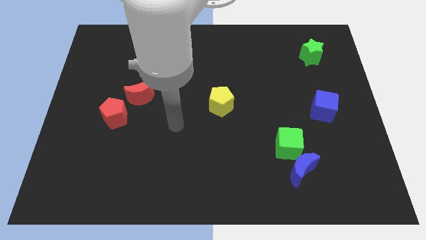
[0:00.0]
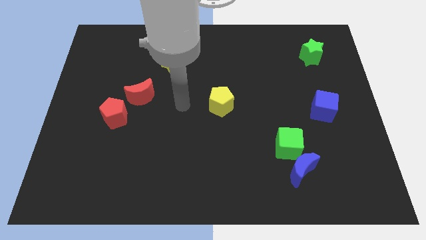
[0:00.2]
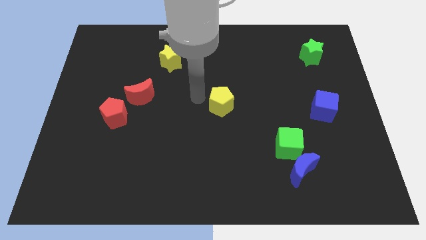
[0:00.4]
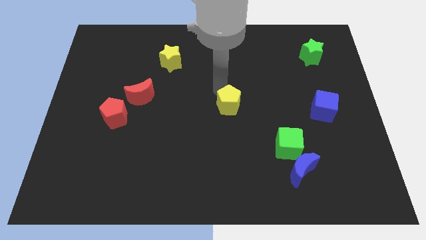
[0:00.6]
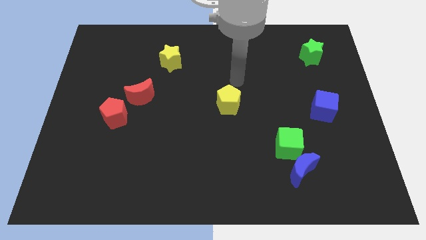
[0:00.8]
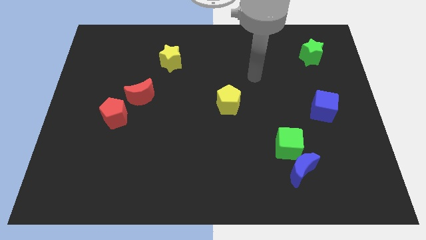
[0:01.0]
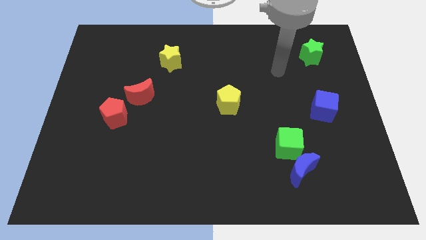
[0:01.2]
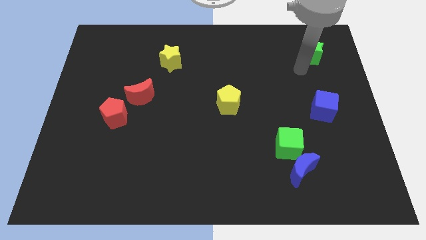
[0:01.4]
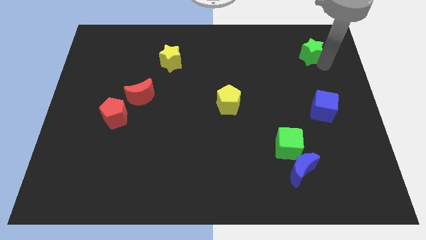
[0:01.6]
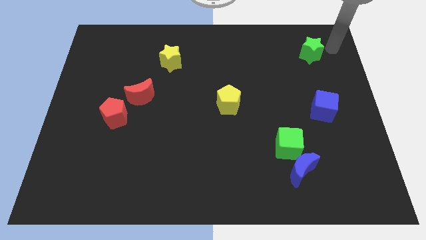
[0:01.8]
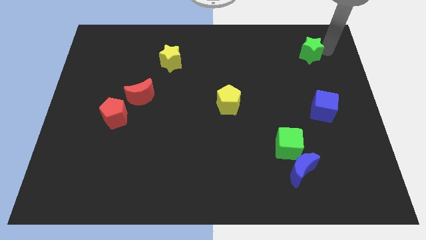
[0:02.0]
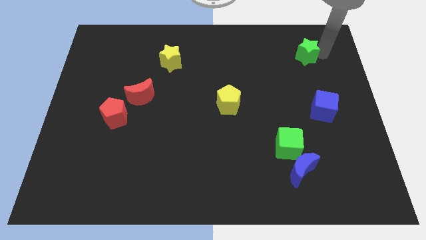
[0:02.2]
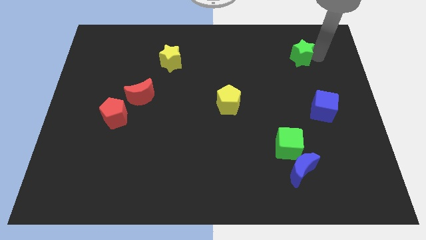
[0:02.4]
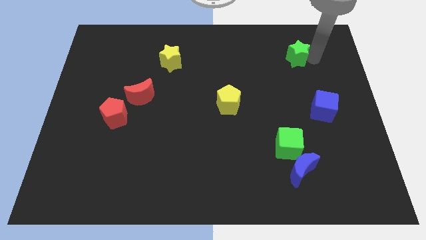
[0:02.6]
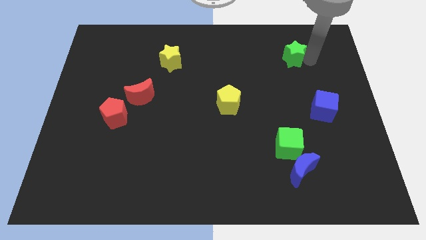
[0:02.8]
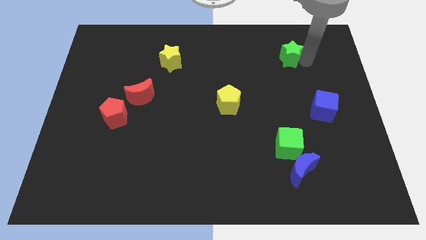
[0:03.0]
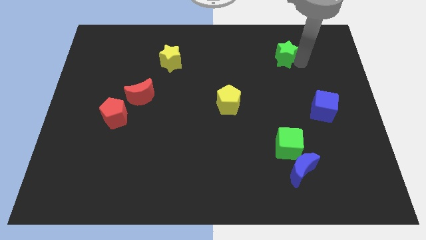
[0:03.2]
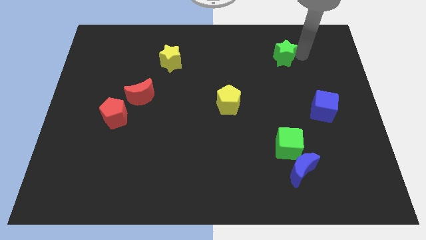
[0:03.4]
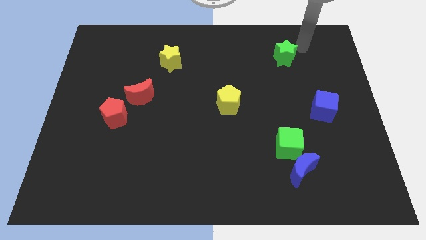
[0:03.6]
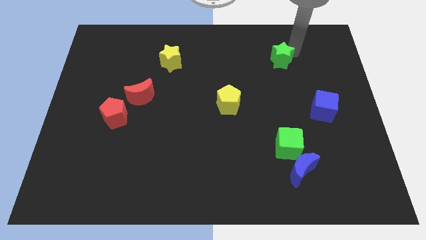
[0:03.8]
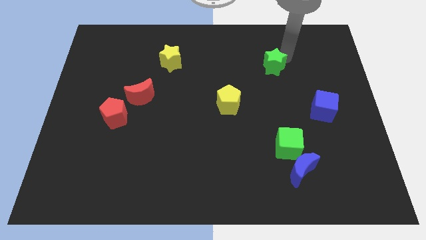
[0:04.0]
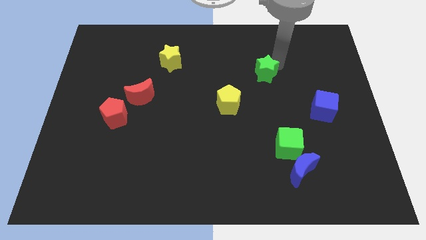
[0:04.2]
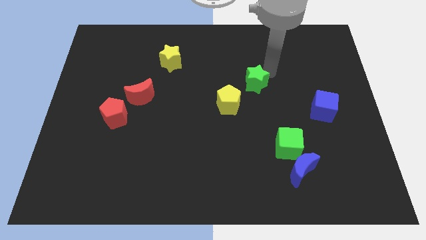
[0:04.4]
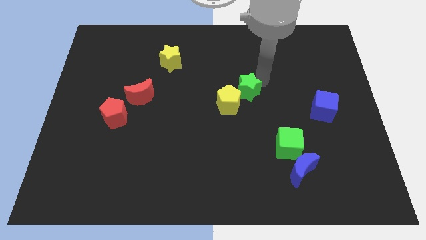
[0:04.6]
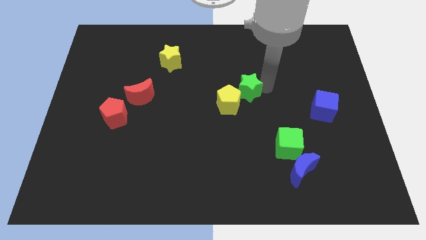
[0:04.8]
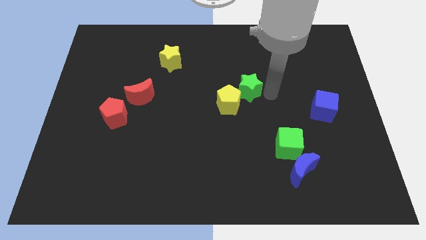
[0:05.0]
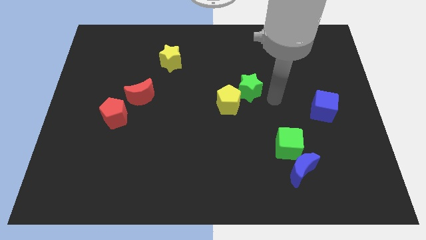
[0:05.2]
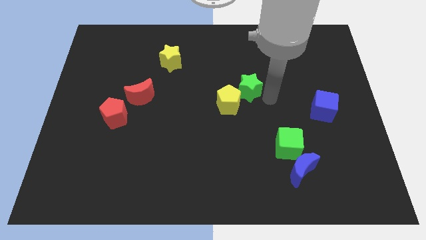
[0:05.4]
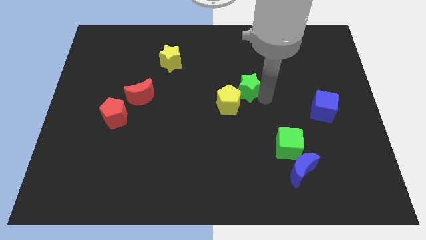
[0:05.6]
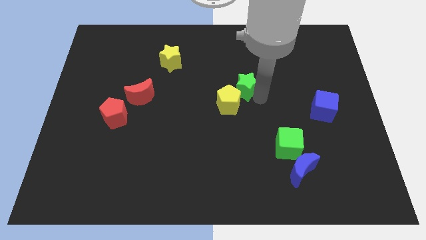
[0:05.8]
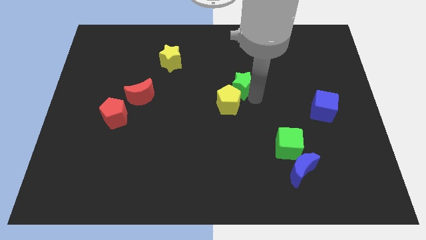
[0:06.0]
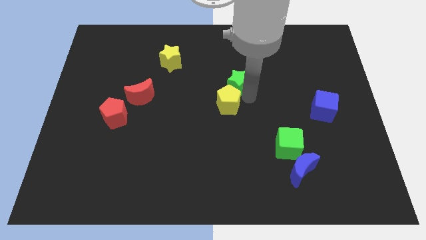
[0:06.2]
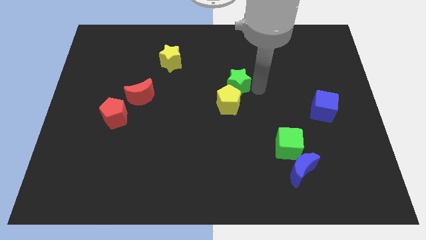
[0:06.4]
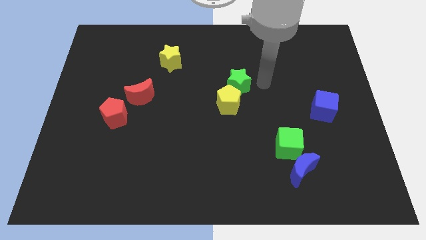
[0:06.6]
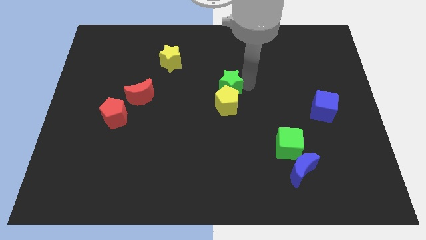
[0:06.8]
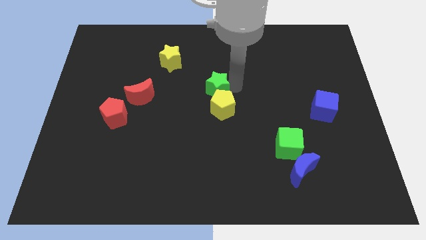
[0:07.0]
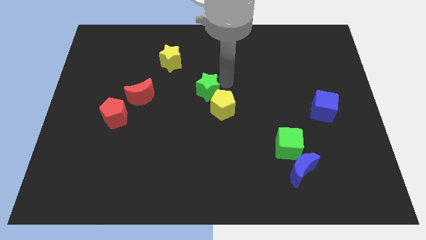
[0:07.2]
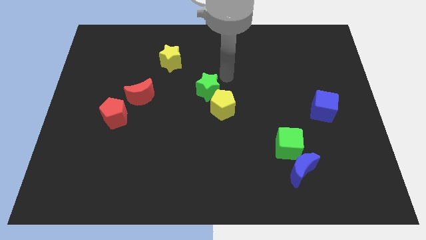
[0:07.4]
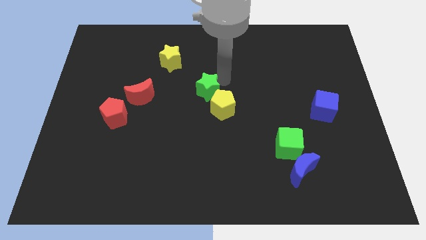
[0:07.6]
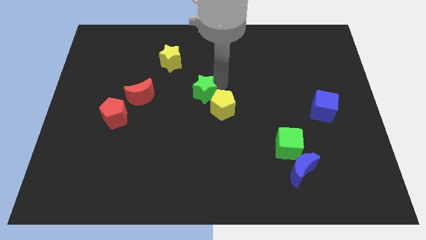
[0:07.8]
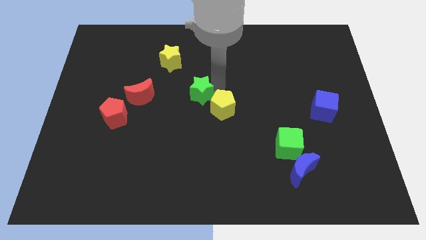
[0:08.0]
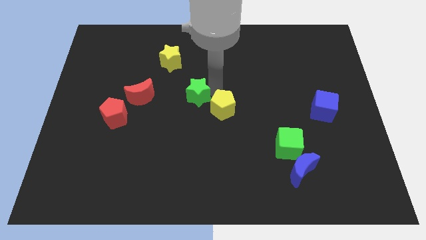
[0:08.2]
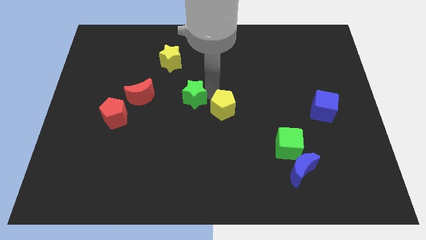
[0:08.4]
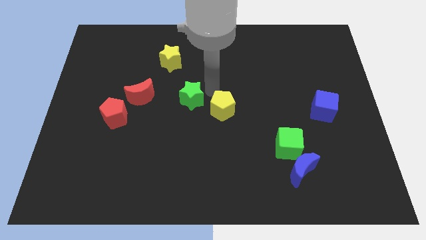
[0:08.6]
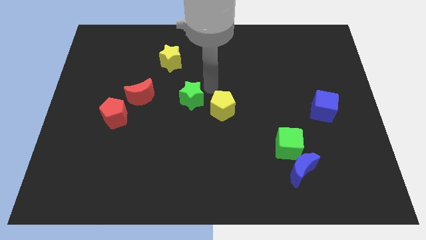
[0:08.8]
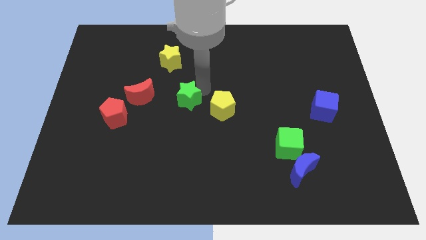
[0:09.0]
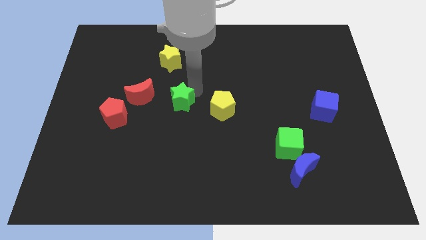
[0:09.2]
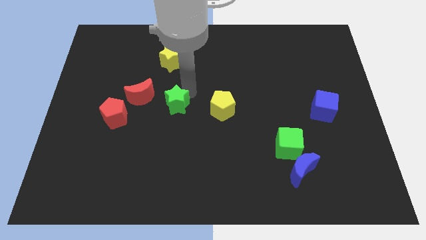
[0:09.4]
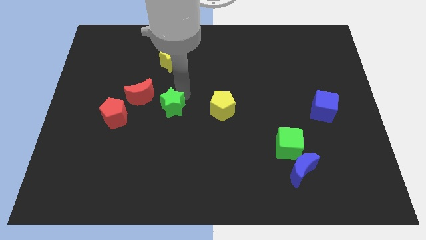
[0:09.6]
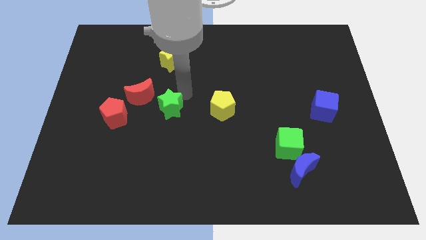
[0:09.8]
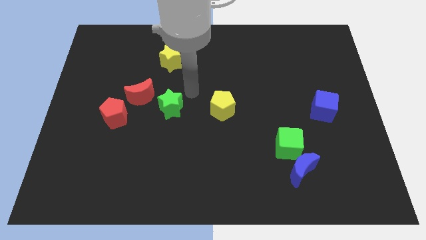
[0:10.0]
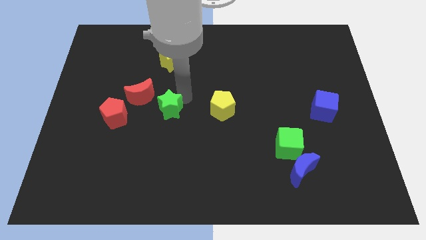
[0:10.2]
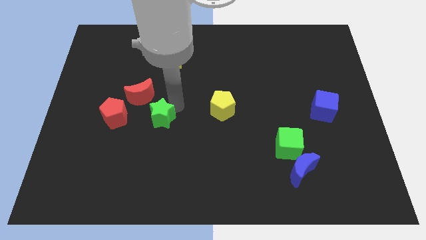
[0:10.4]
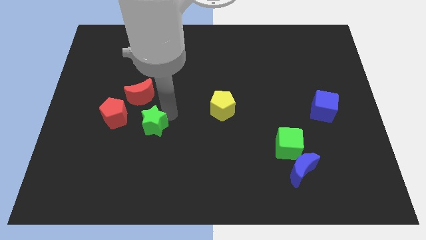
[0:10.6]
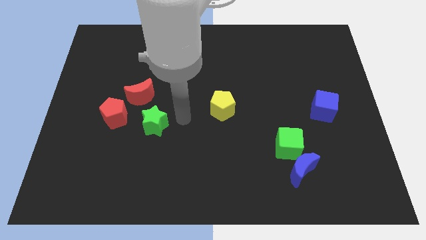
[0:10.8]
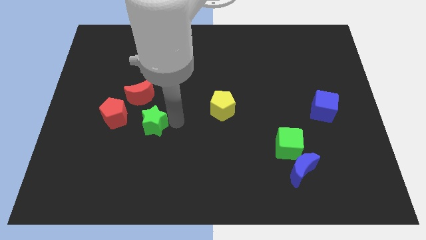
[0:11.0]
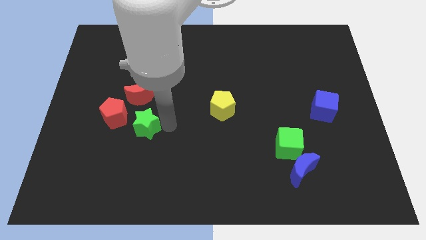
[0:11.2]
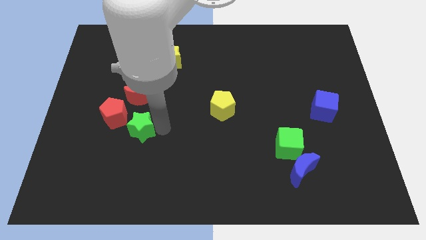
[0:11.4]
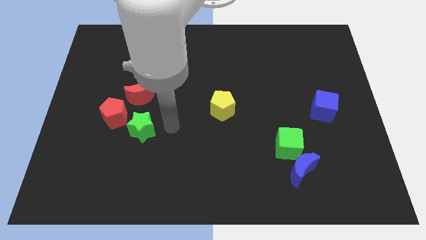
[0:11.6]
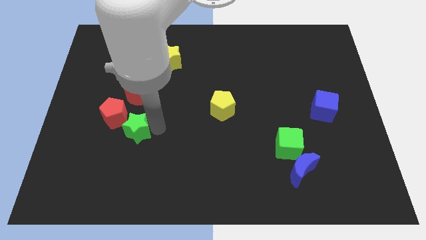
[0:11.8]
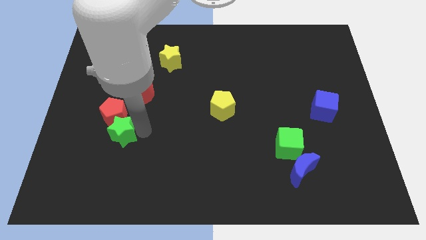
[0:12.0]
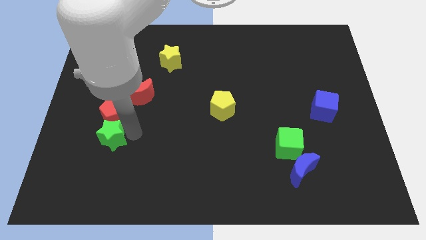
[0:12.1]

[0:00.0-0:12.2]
put the green star diagonally down and to the left of the red pentagon
